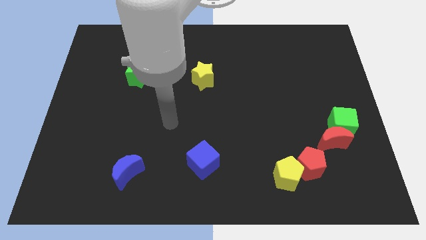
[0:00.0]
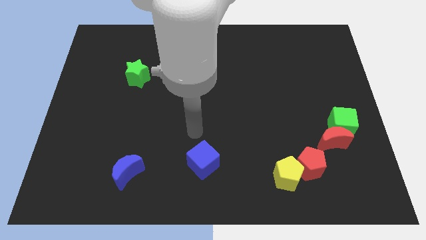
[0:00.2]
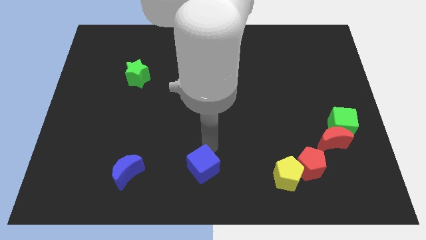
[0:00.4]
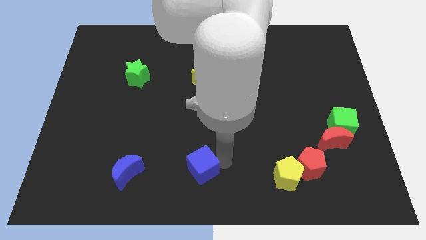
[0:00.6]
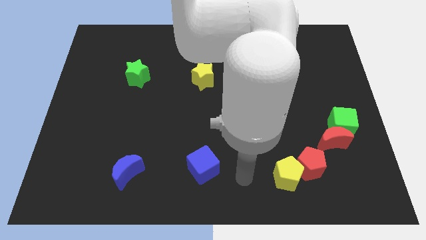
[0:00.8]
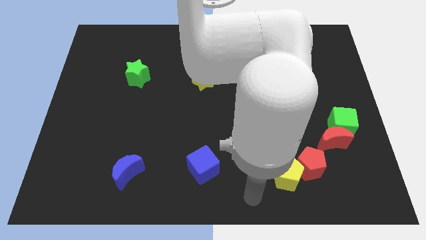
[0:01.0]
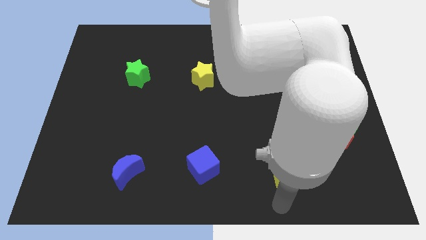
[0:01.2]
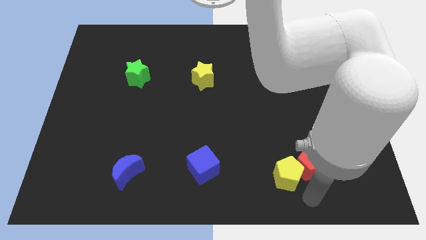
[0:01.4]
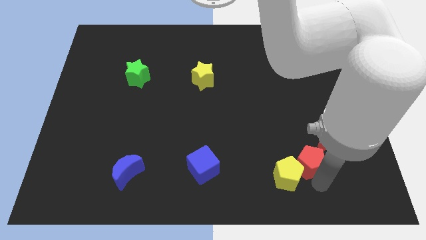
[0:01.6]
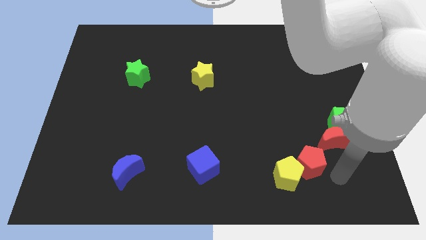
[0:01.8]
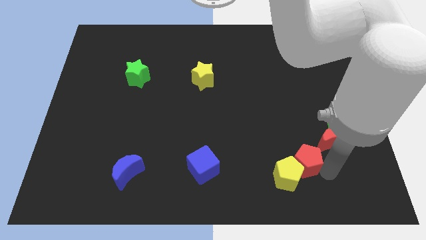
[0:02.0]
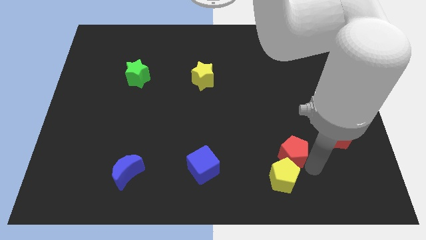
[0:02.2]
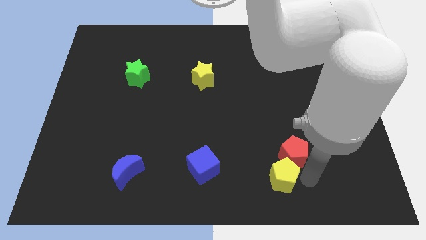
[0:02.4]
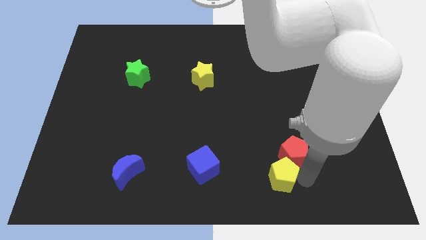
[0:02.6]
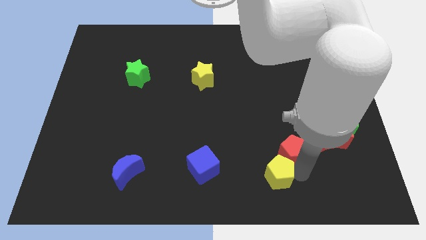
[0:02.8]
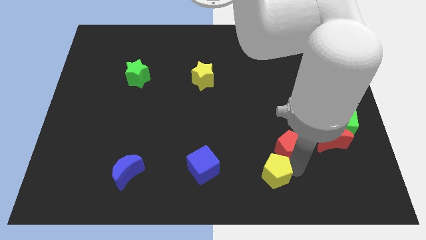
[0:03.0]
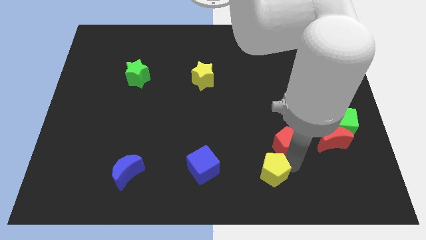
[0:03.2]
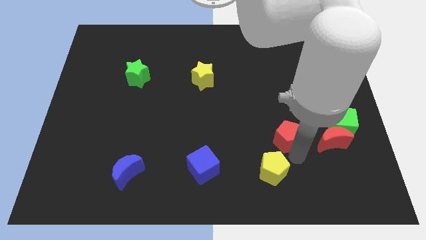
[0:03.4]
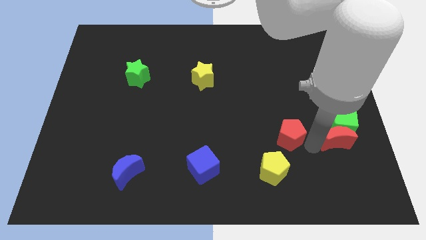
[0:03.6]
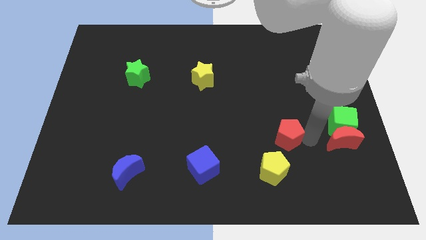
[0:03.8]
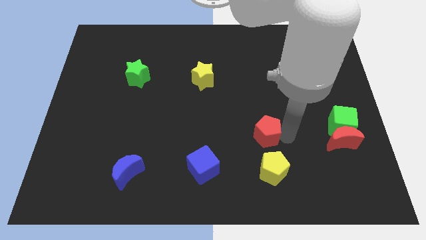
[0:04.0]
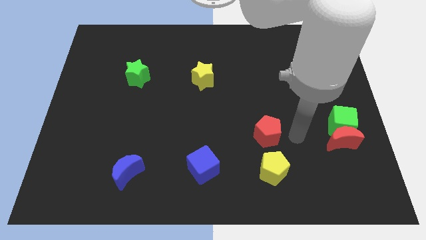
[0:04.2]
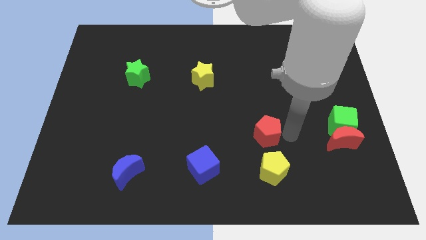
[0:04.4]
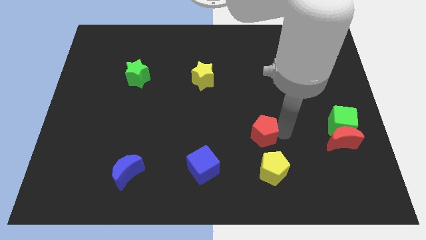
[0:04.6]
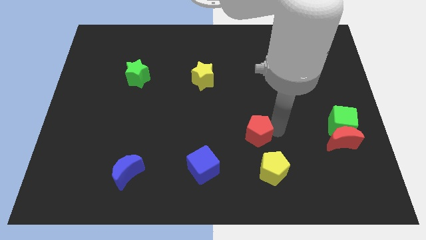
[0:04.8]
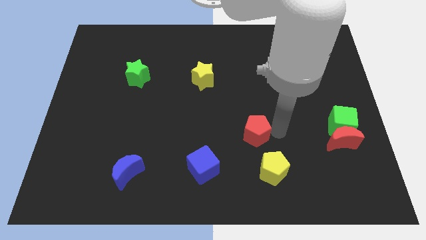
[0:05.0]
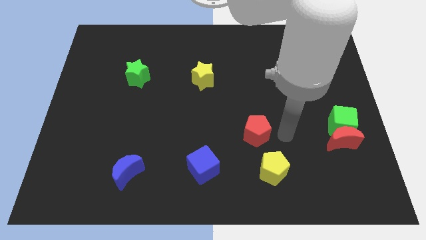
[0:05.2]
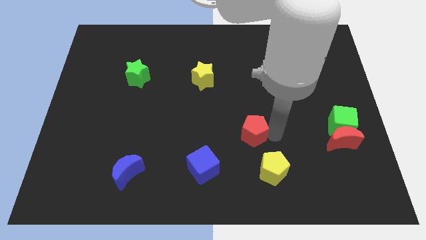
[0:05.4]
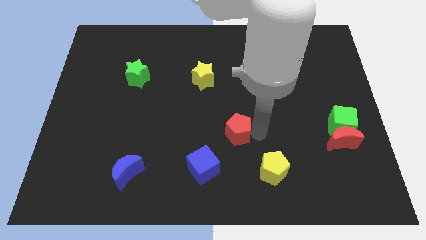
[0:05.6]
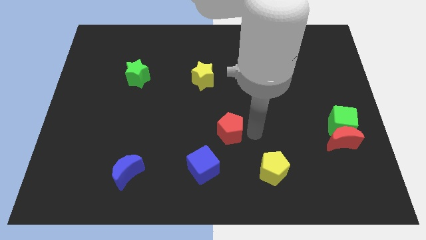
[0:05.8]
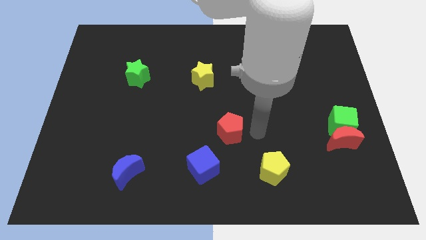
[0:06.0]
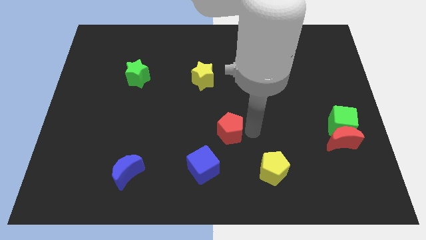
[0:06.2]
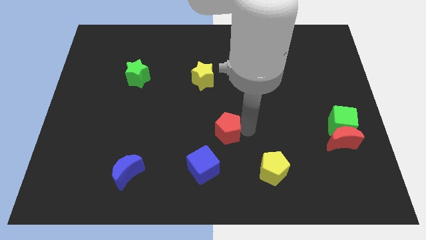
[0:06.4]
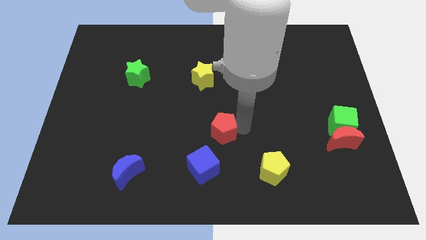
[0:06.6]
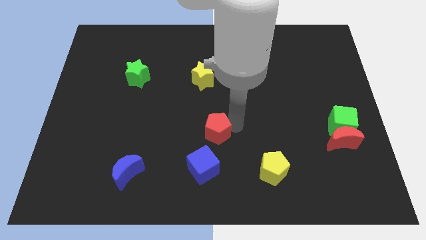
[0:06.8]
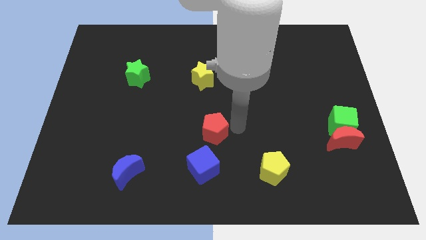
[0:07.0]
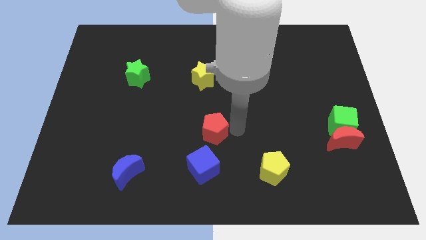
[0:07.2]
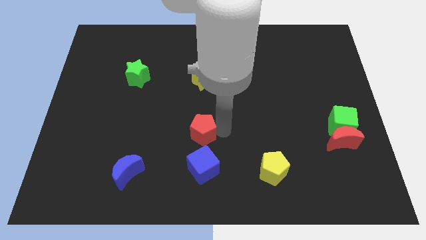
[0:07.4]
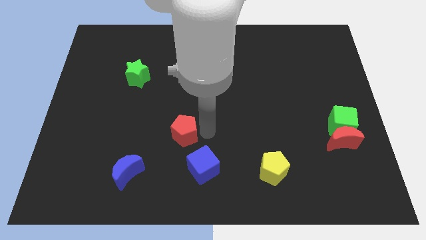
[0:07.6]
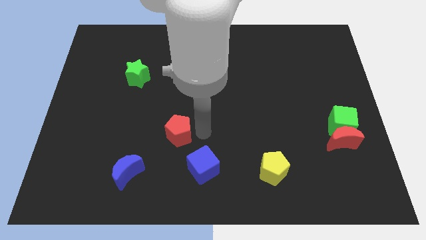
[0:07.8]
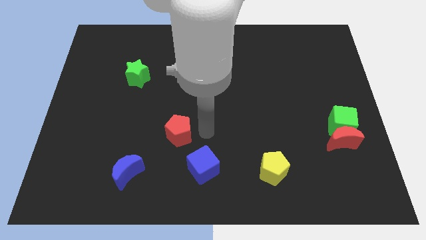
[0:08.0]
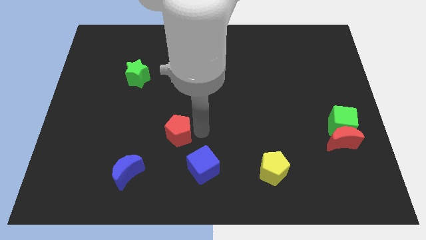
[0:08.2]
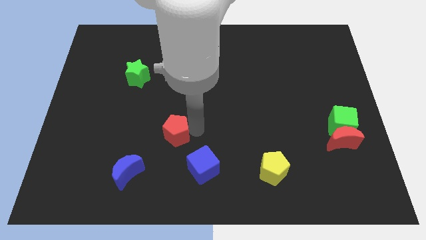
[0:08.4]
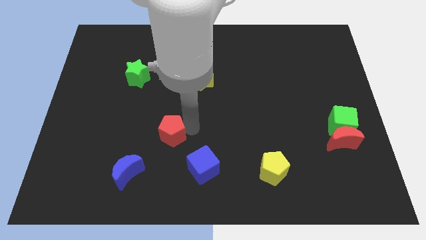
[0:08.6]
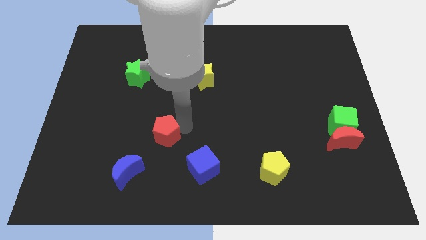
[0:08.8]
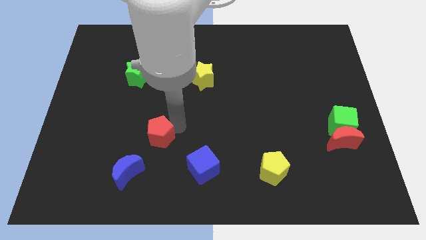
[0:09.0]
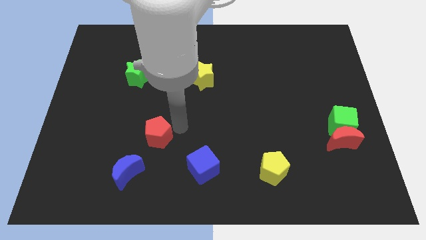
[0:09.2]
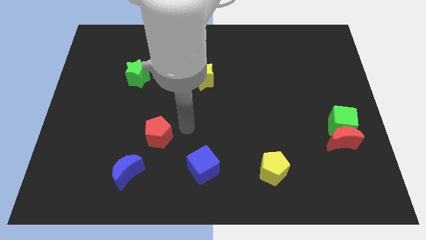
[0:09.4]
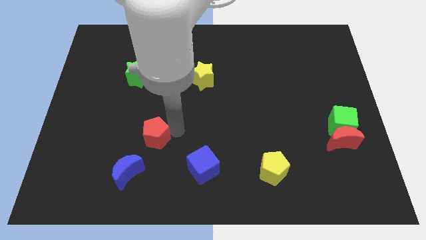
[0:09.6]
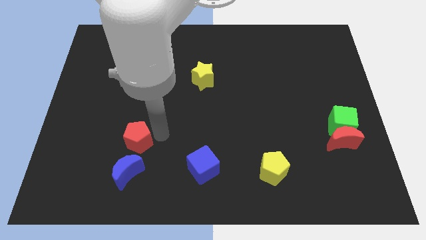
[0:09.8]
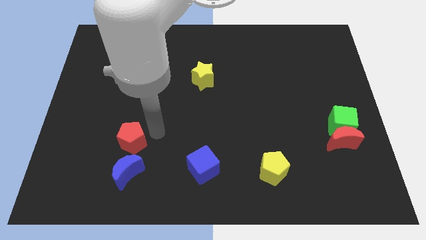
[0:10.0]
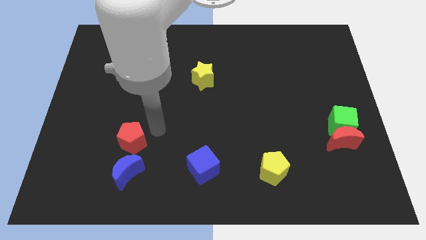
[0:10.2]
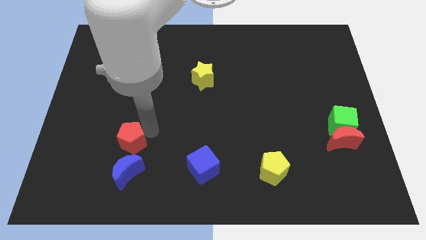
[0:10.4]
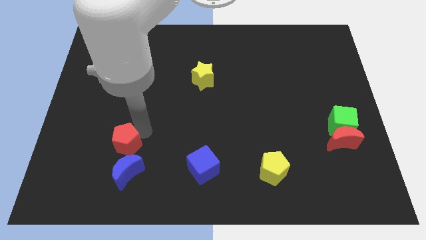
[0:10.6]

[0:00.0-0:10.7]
push the red pentagon to the top left side of the blue moon
